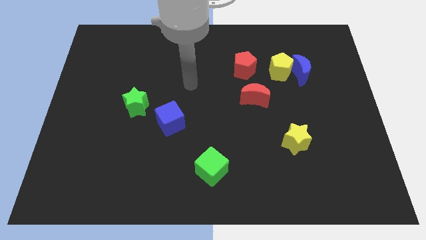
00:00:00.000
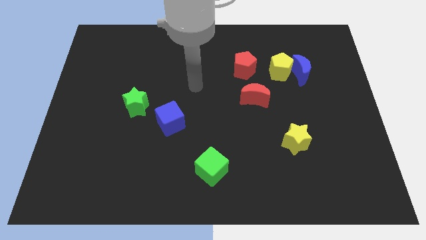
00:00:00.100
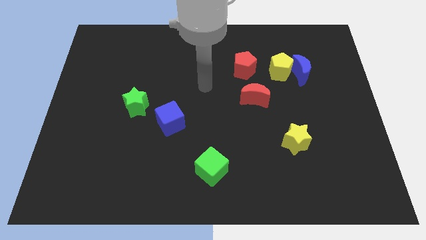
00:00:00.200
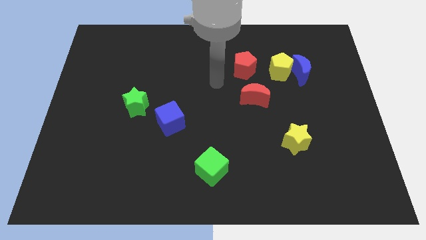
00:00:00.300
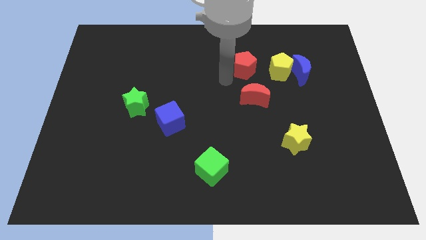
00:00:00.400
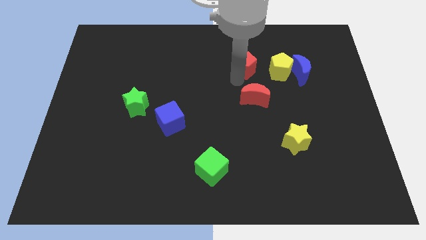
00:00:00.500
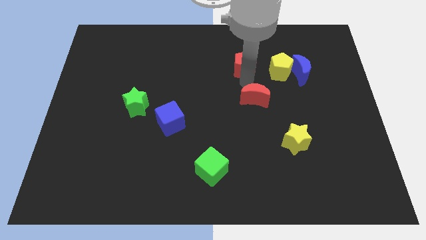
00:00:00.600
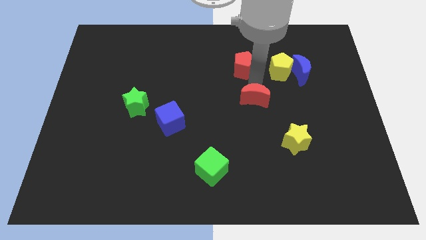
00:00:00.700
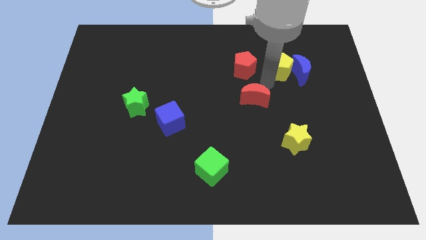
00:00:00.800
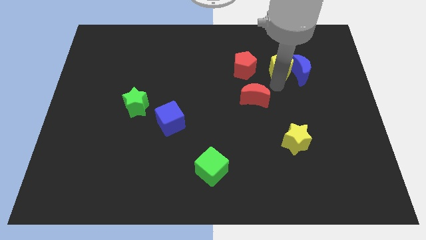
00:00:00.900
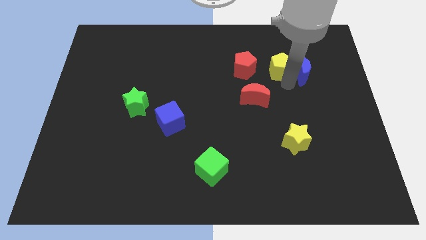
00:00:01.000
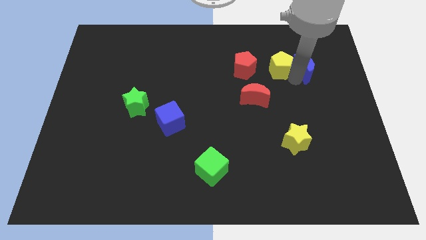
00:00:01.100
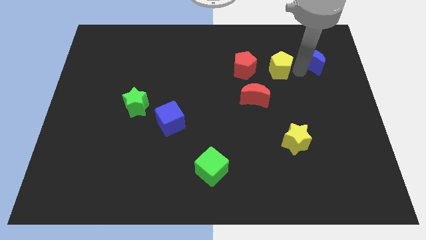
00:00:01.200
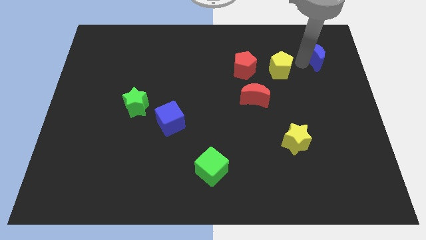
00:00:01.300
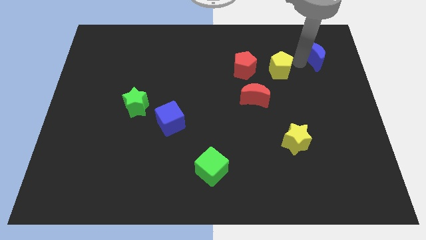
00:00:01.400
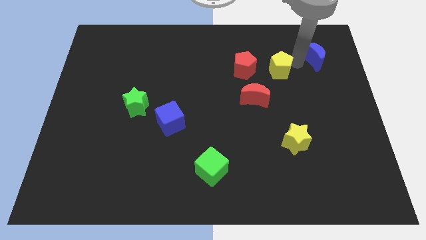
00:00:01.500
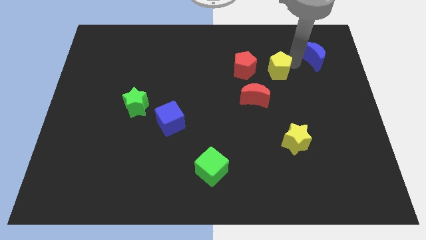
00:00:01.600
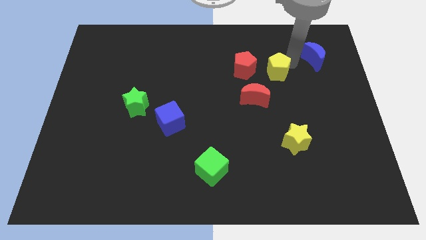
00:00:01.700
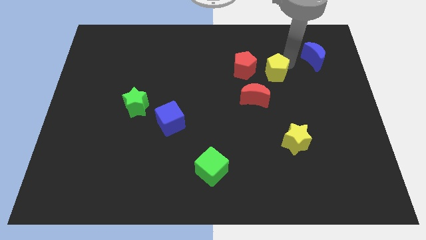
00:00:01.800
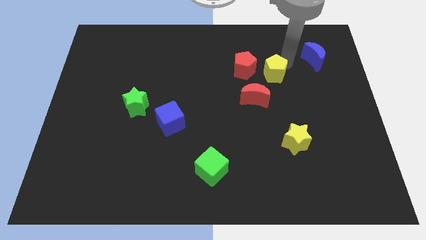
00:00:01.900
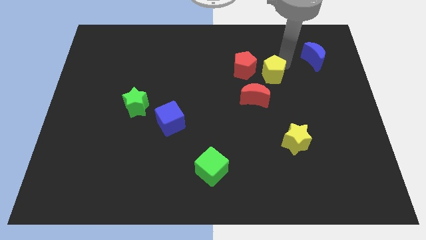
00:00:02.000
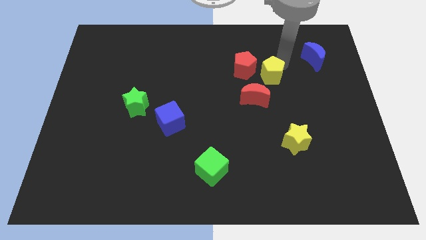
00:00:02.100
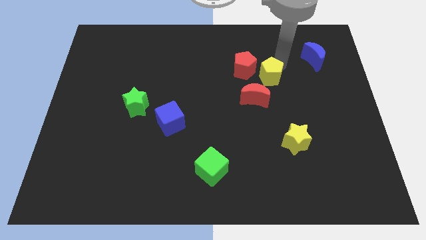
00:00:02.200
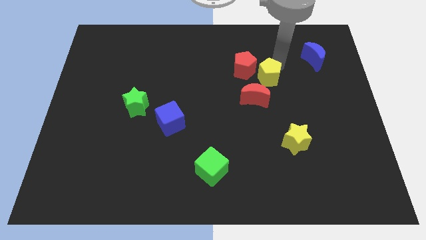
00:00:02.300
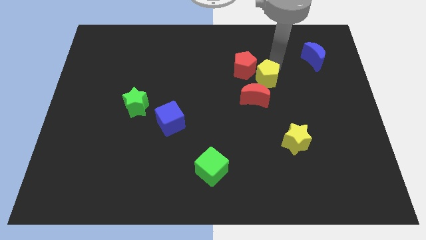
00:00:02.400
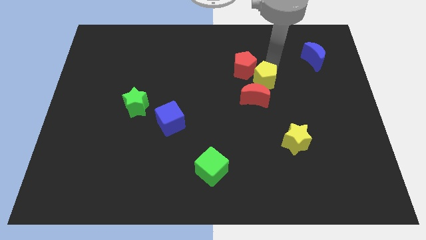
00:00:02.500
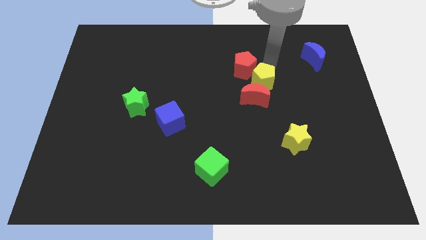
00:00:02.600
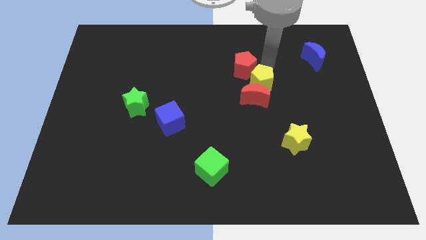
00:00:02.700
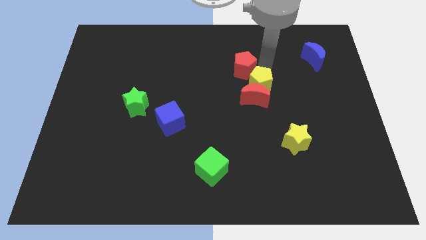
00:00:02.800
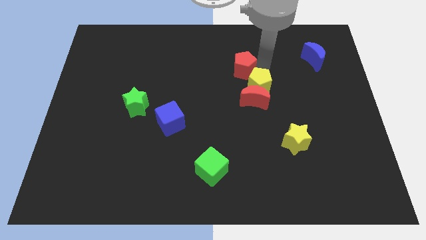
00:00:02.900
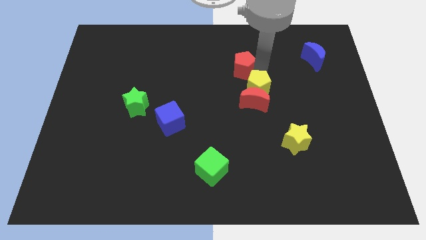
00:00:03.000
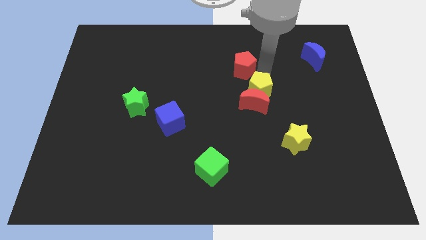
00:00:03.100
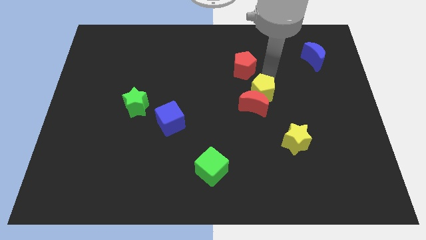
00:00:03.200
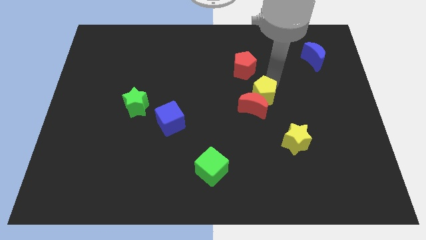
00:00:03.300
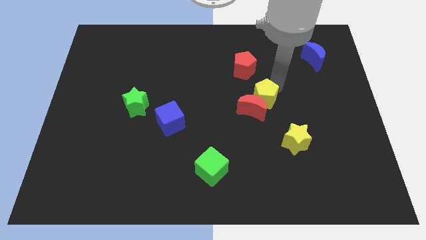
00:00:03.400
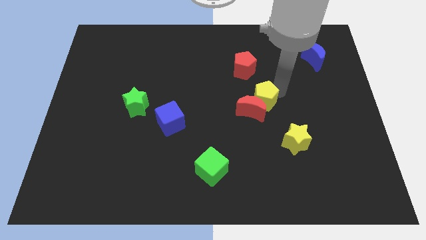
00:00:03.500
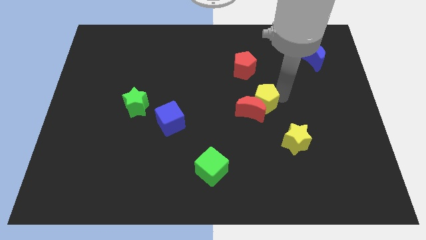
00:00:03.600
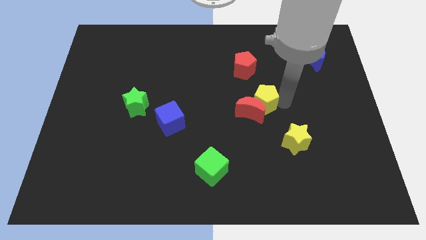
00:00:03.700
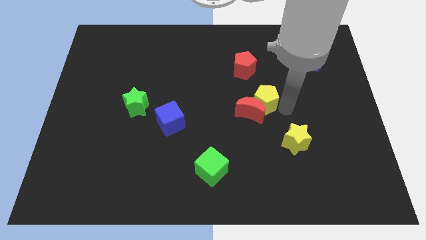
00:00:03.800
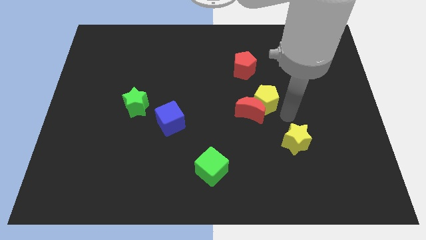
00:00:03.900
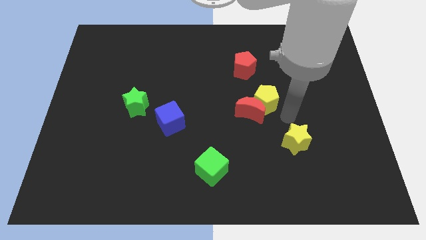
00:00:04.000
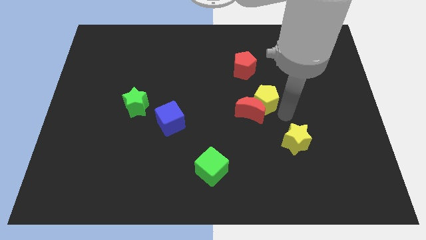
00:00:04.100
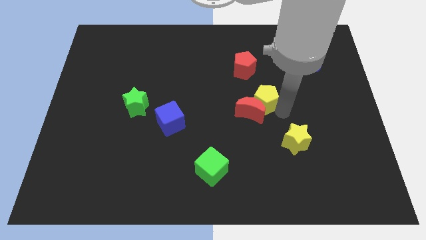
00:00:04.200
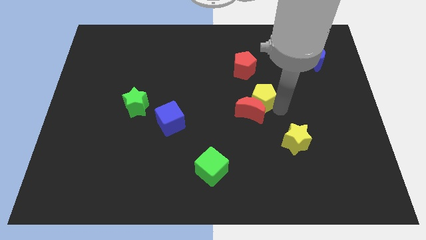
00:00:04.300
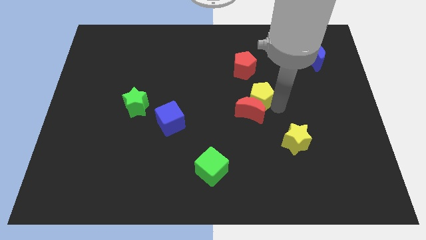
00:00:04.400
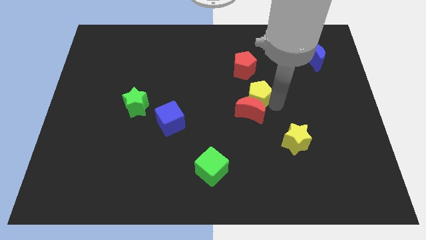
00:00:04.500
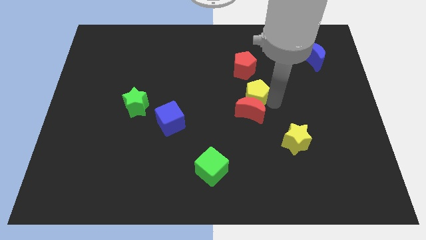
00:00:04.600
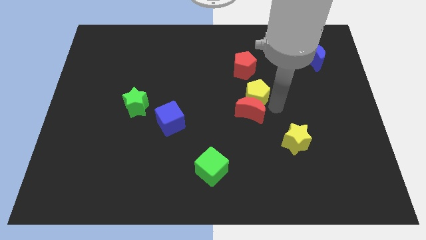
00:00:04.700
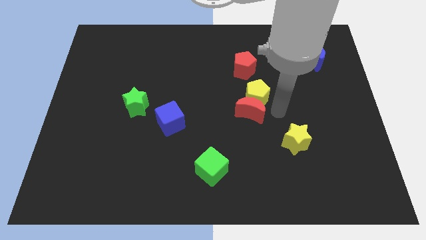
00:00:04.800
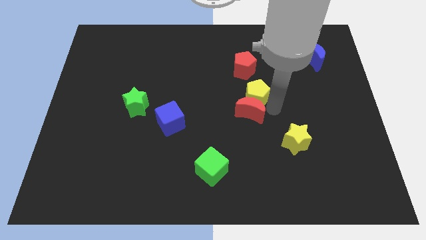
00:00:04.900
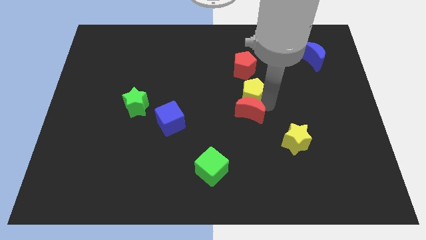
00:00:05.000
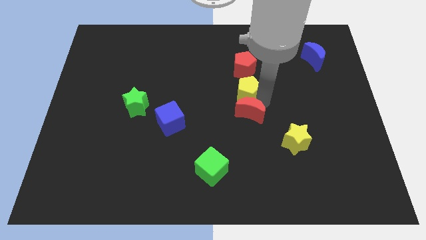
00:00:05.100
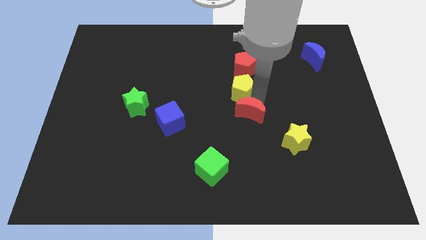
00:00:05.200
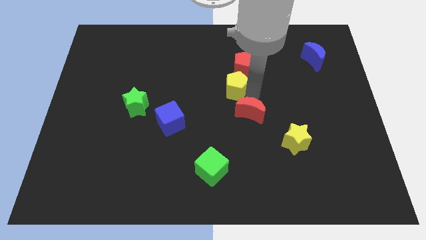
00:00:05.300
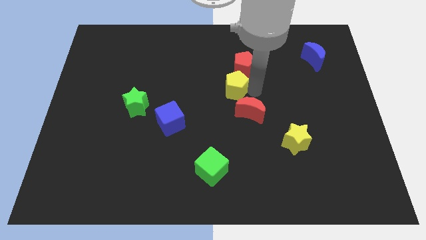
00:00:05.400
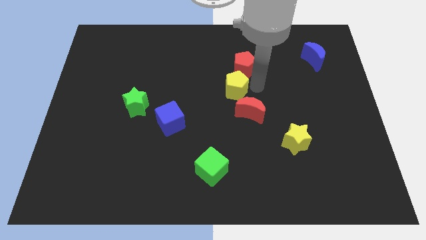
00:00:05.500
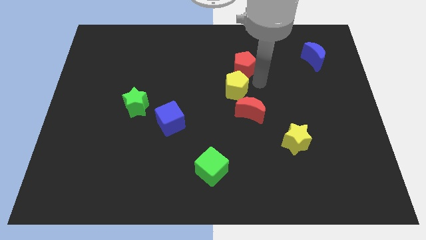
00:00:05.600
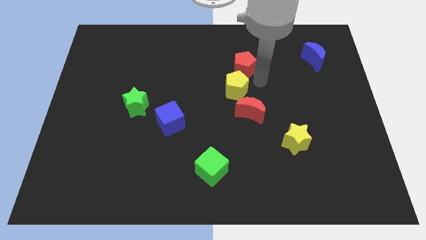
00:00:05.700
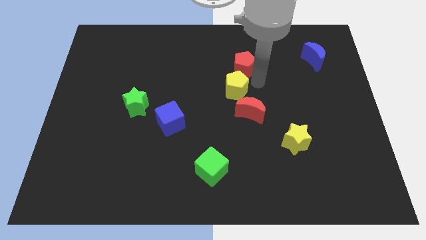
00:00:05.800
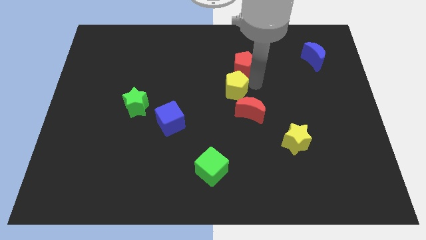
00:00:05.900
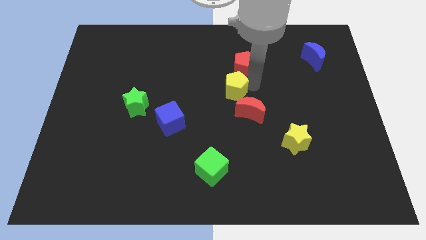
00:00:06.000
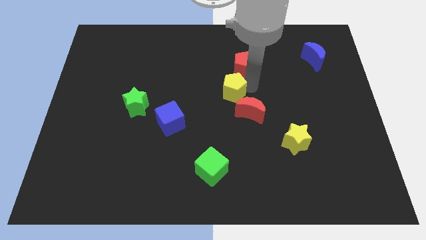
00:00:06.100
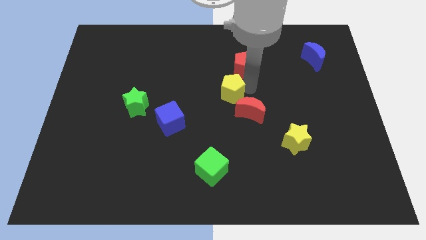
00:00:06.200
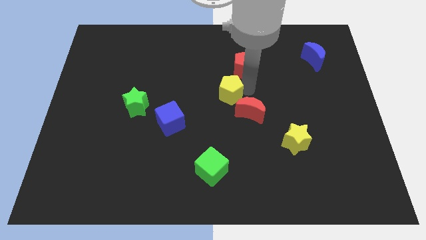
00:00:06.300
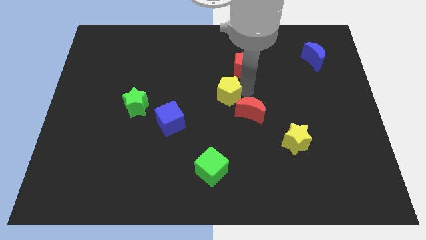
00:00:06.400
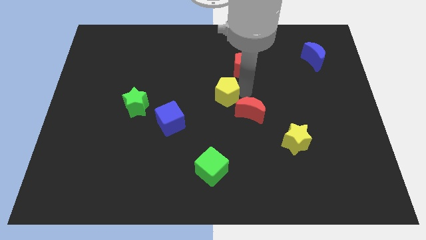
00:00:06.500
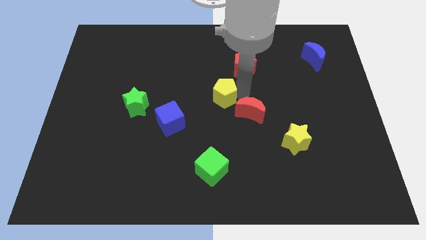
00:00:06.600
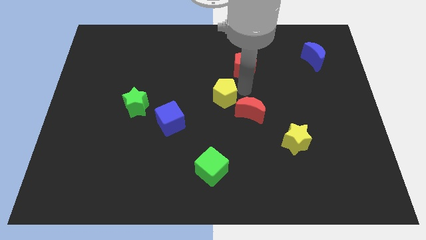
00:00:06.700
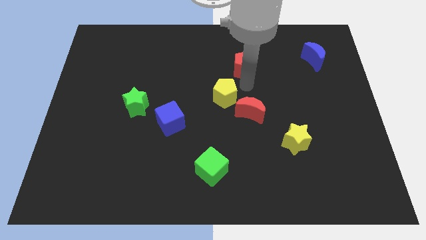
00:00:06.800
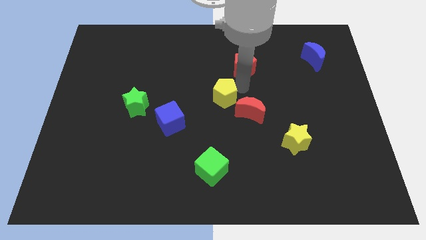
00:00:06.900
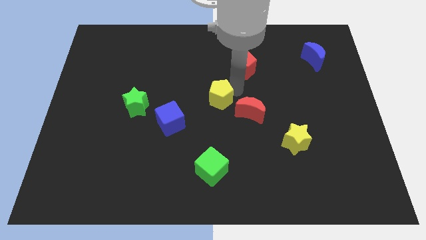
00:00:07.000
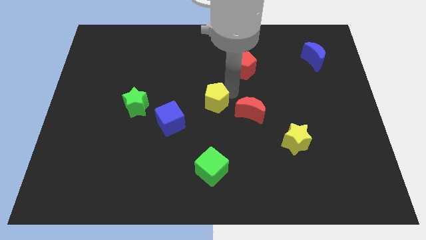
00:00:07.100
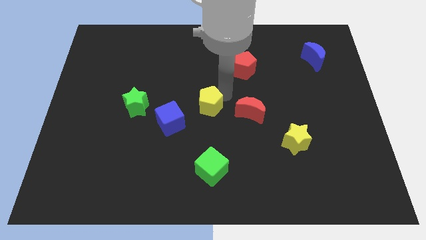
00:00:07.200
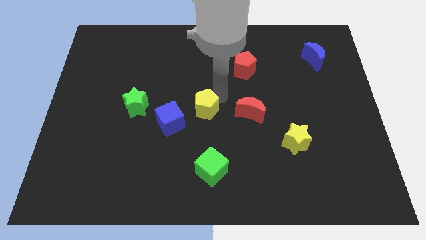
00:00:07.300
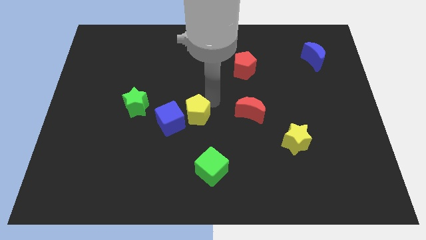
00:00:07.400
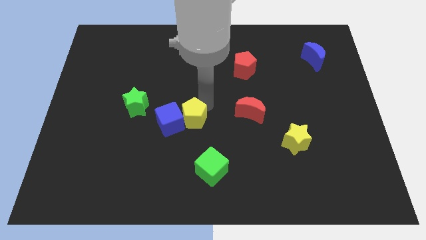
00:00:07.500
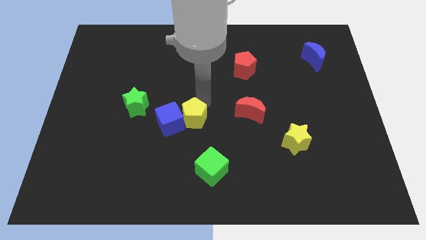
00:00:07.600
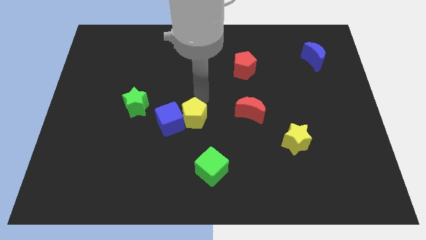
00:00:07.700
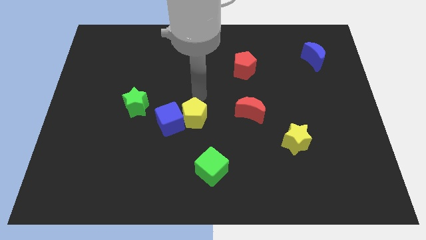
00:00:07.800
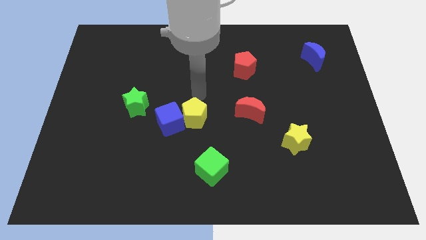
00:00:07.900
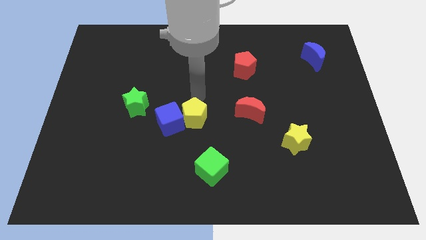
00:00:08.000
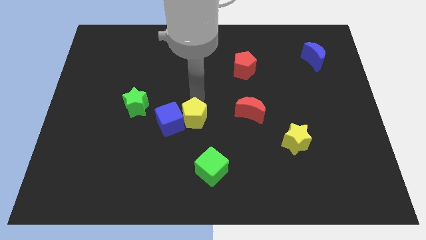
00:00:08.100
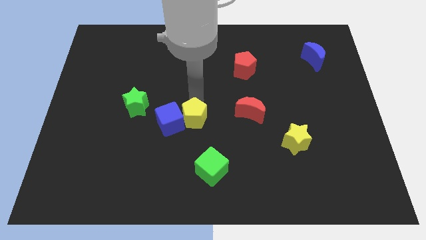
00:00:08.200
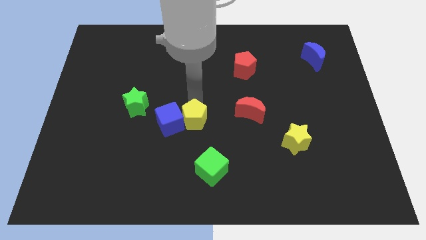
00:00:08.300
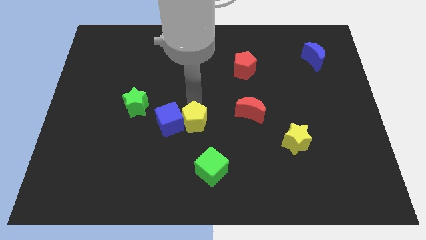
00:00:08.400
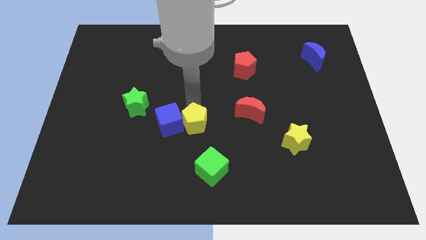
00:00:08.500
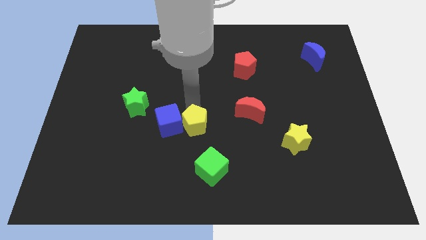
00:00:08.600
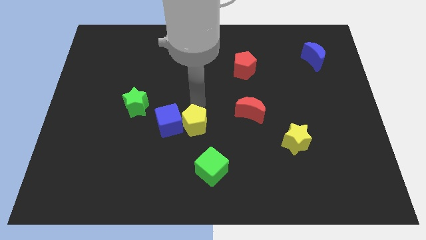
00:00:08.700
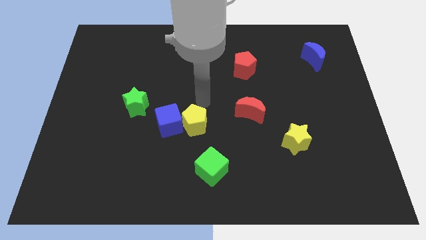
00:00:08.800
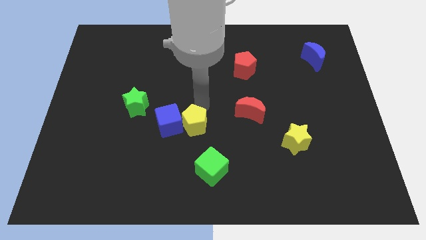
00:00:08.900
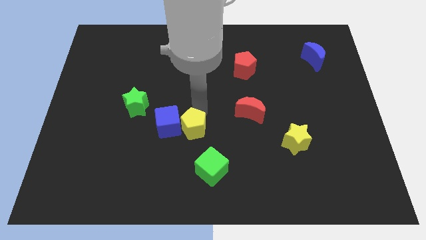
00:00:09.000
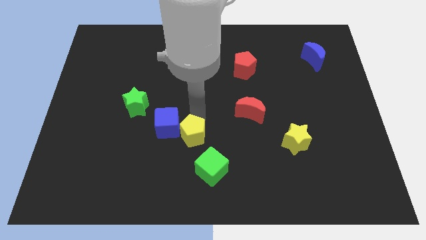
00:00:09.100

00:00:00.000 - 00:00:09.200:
push the yellow pentagon to the top left side of the green cube
